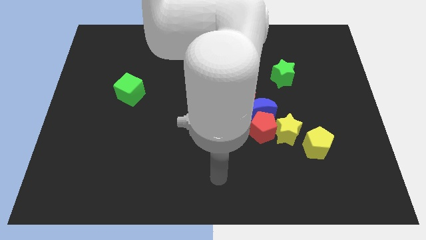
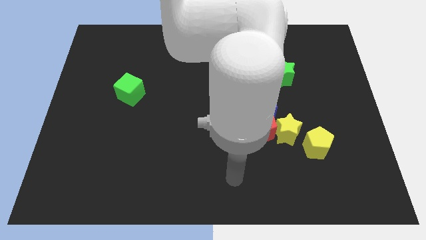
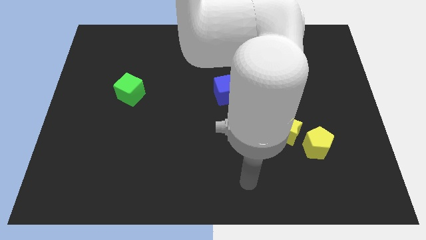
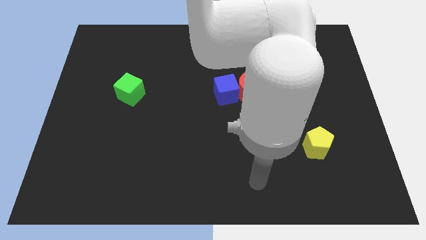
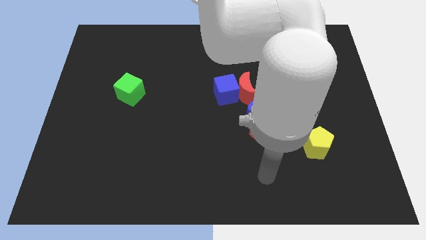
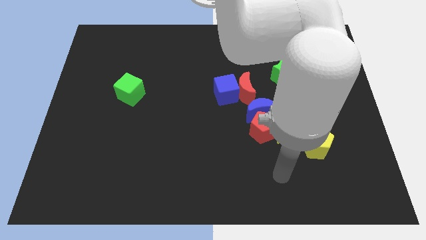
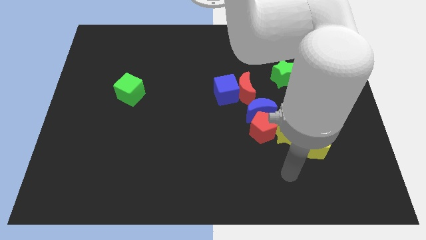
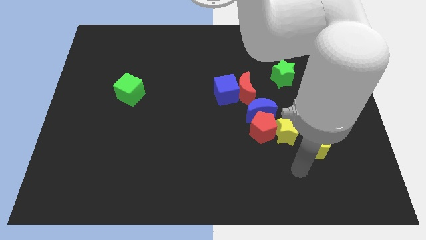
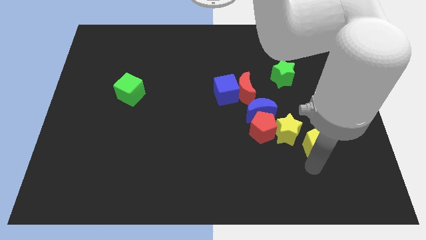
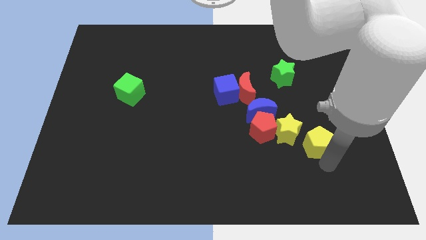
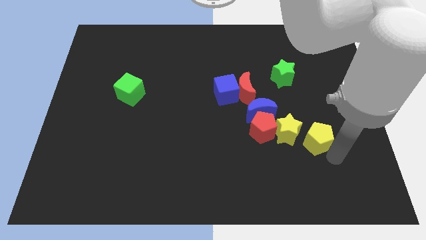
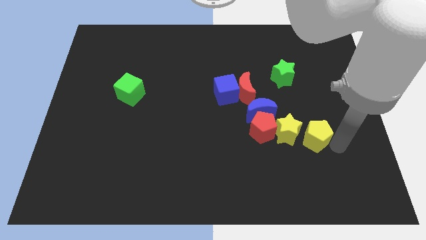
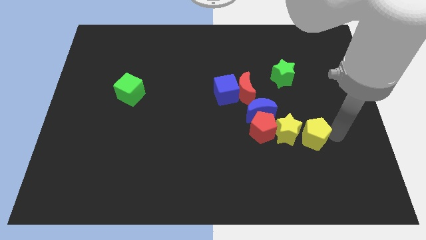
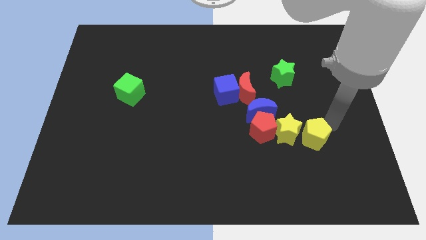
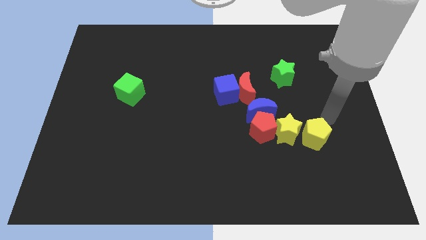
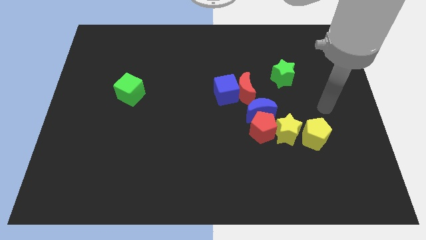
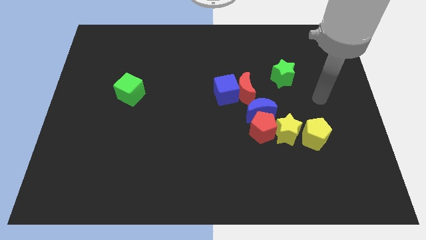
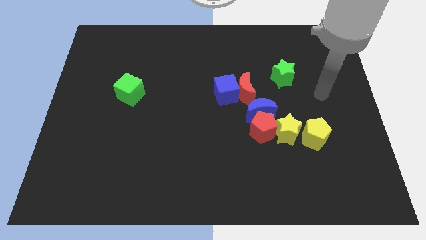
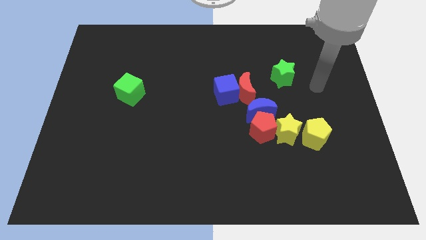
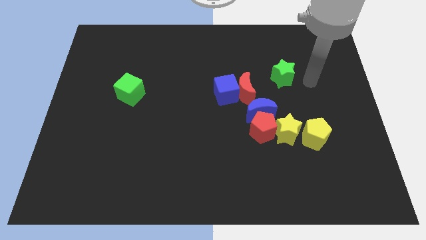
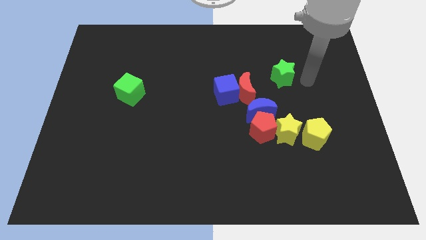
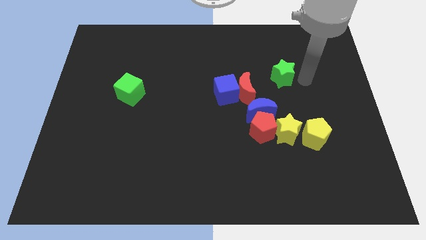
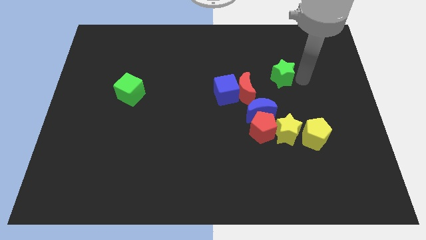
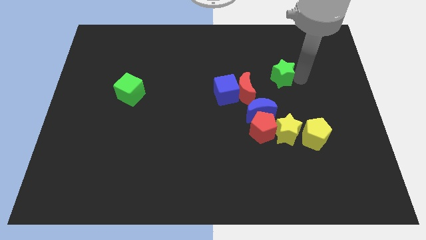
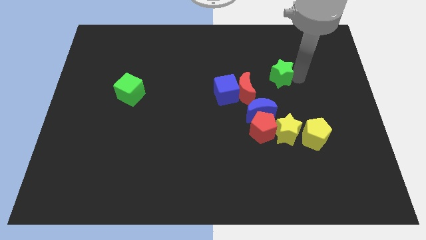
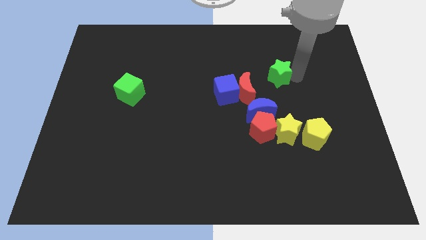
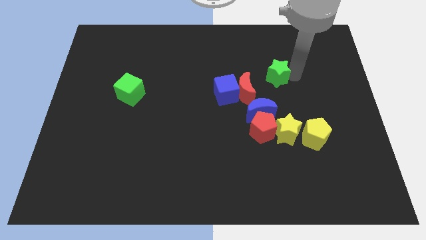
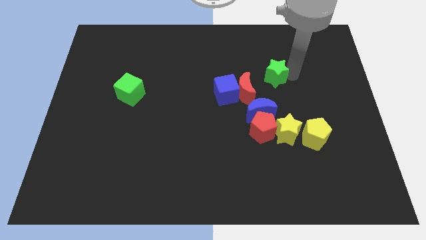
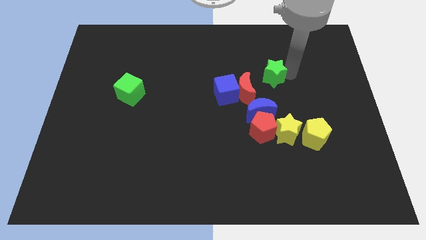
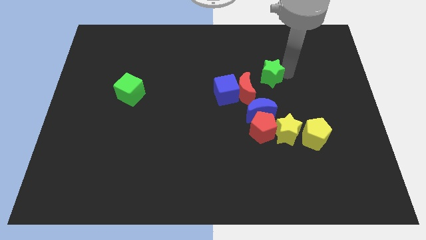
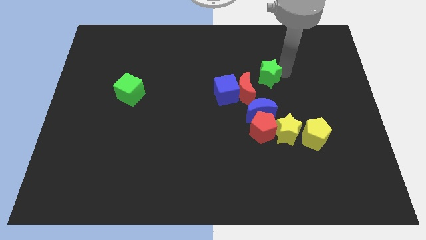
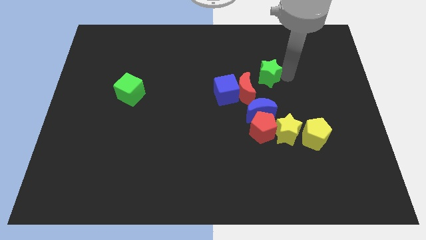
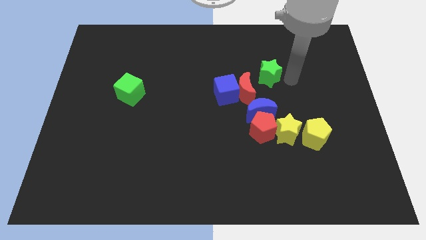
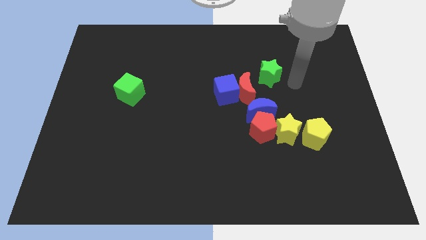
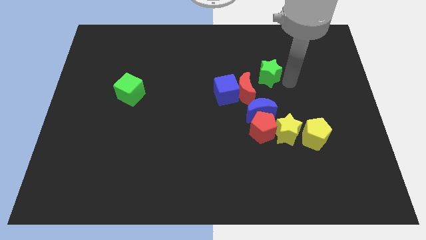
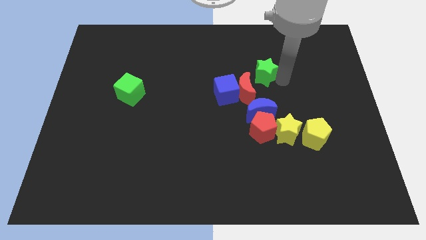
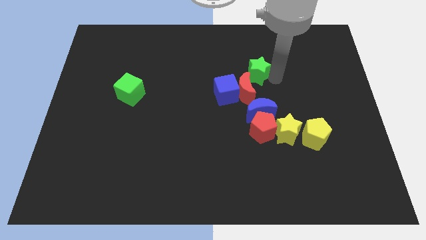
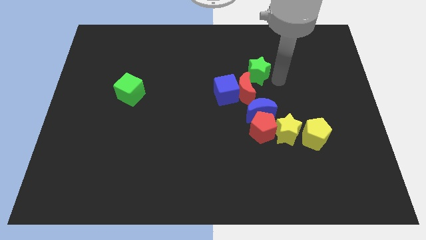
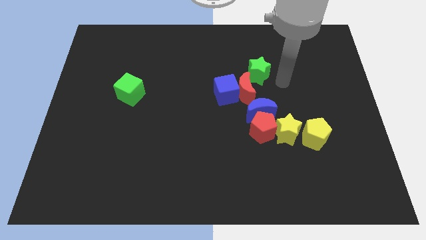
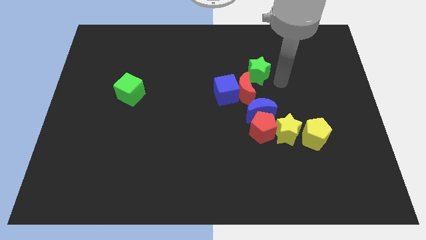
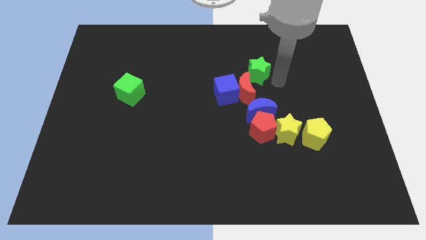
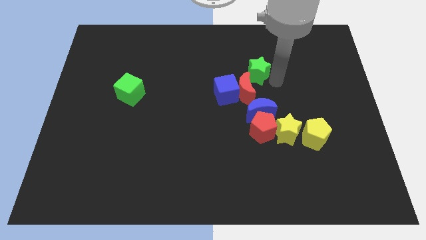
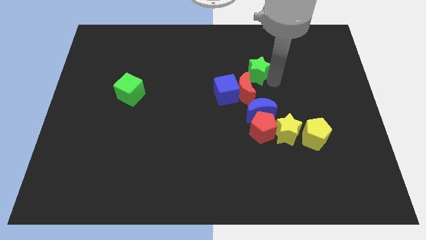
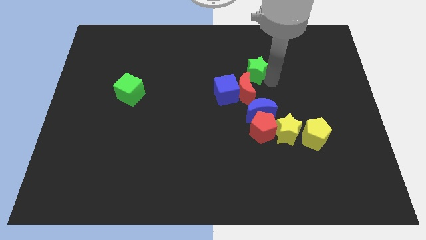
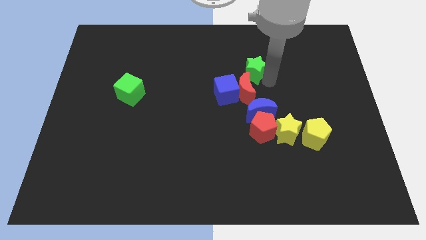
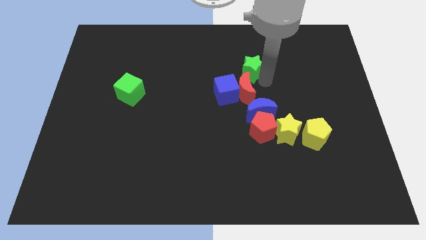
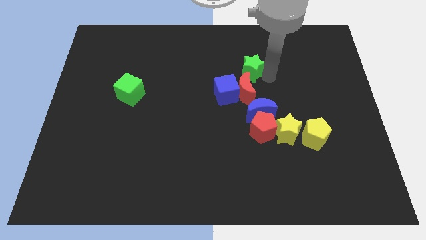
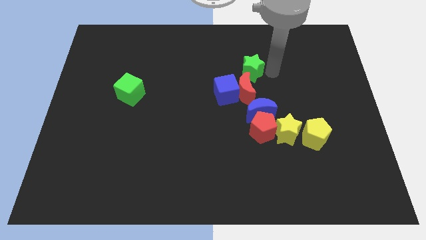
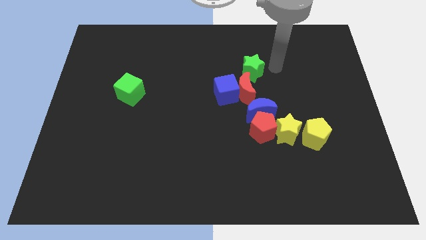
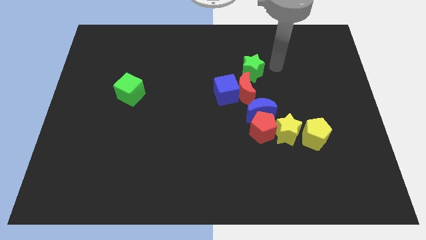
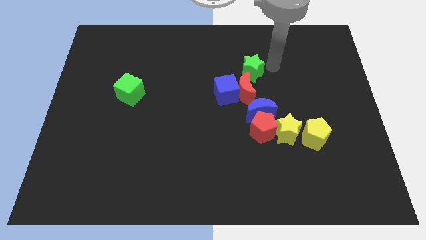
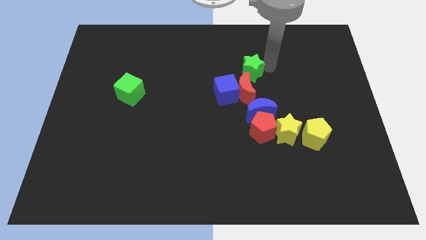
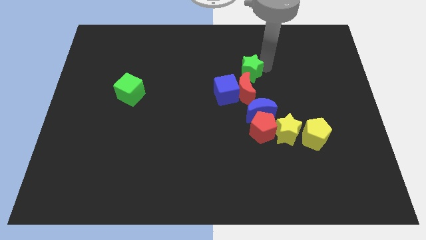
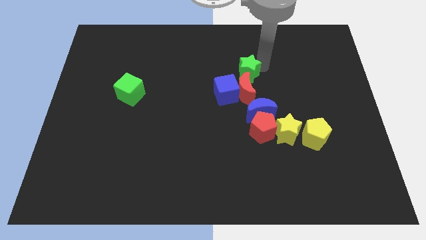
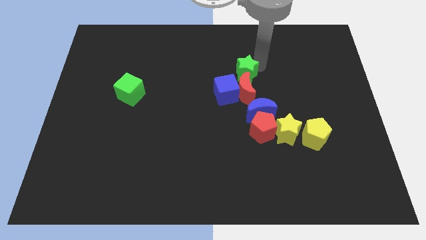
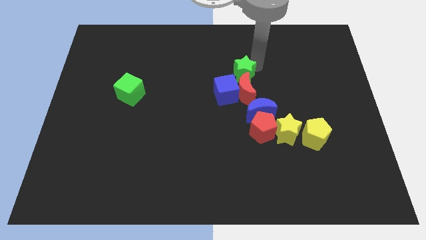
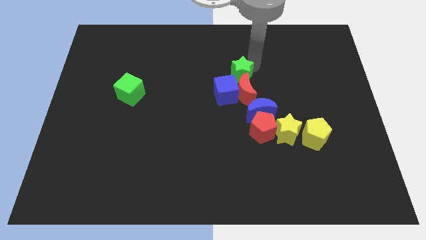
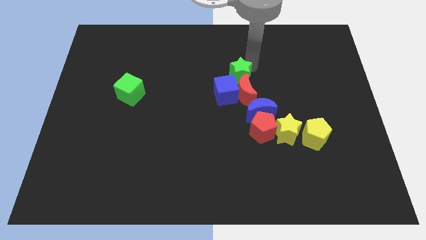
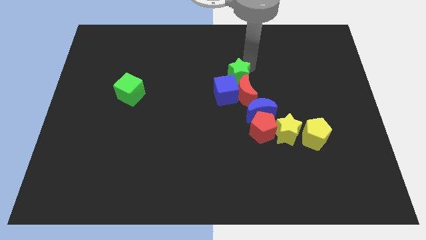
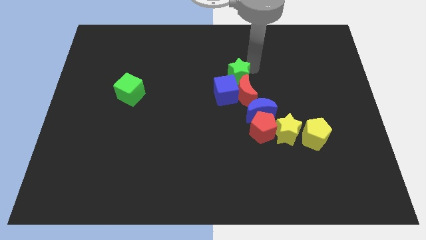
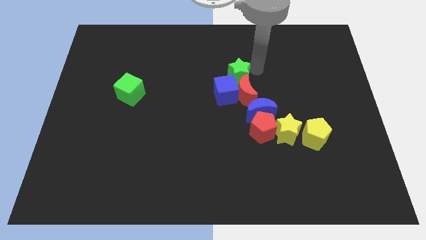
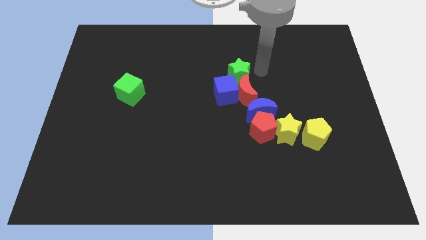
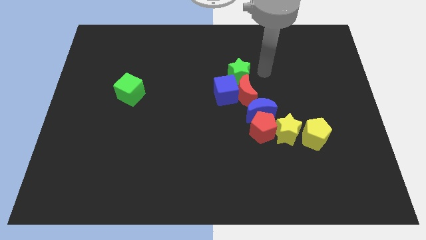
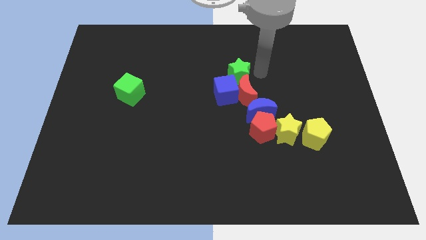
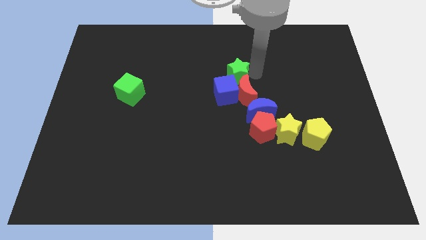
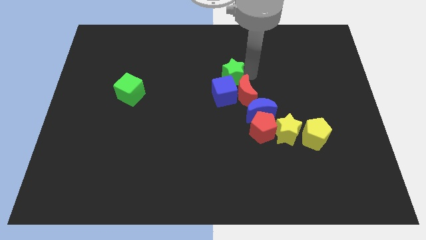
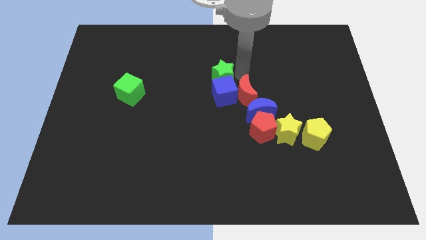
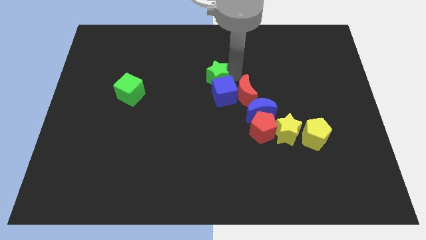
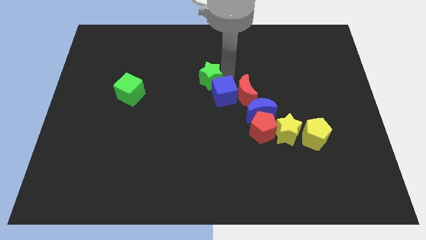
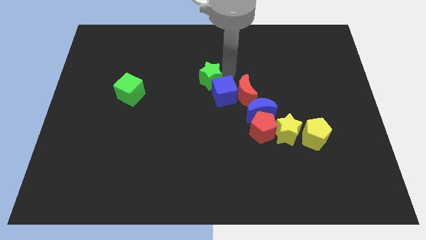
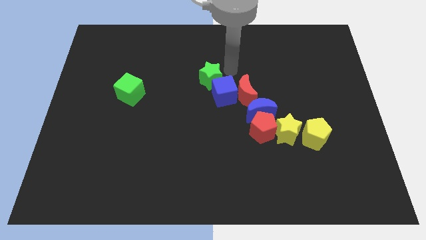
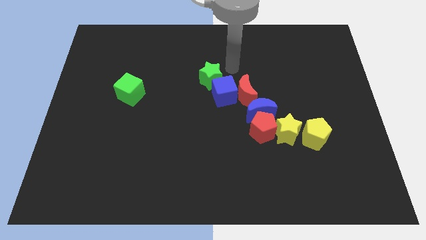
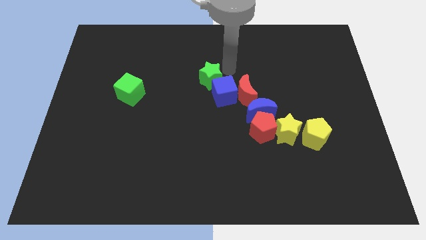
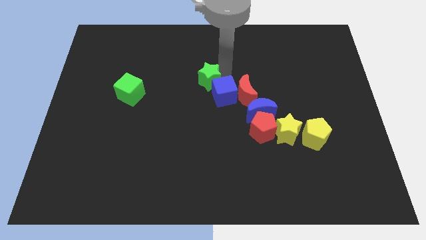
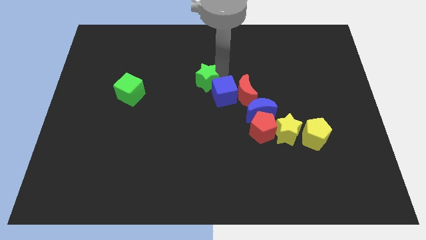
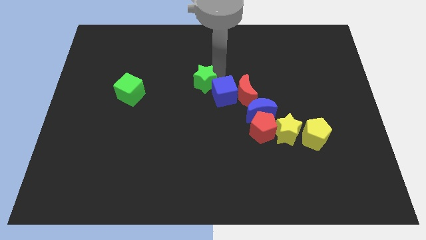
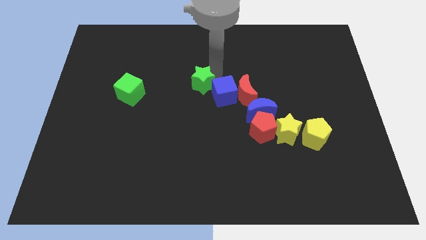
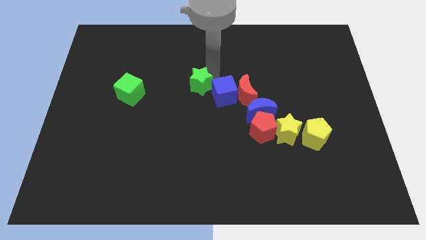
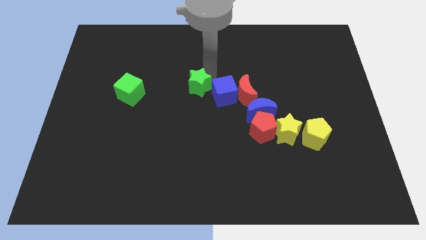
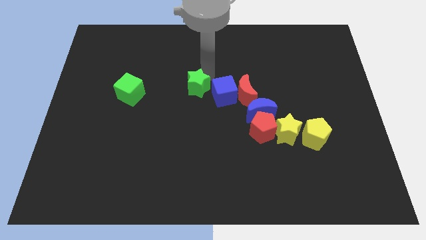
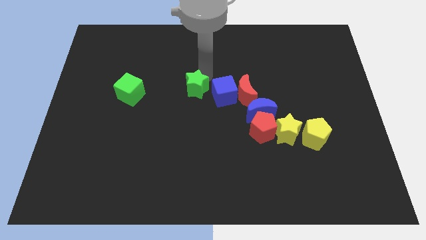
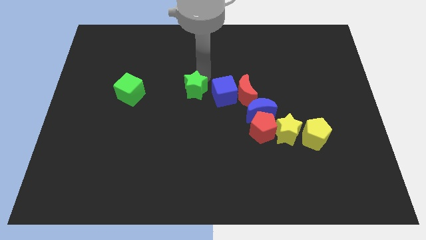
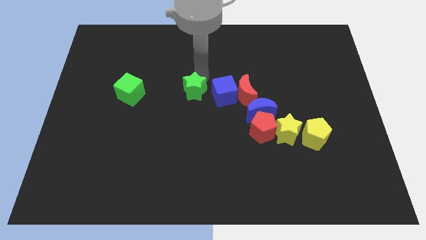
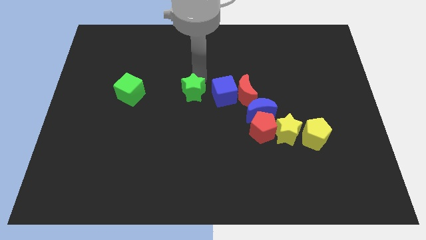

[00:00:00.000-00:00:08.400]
slightly slide the green star down and then left
